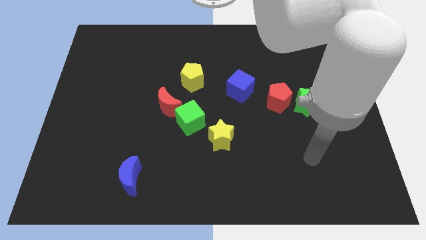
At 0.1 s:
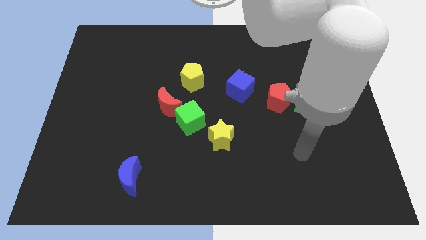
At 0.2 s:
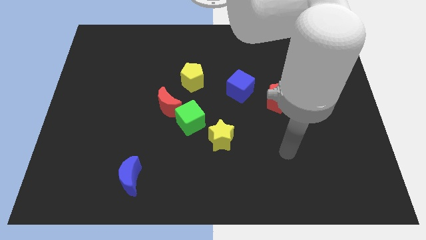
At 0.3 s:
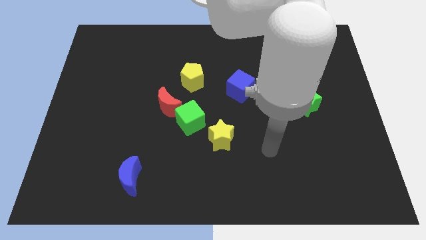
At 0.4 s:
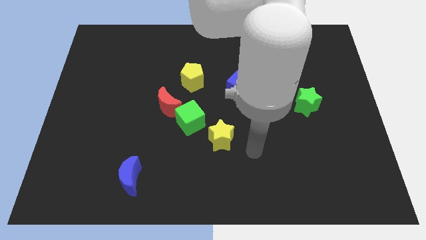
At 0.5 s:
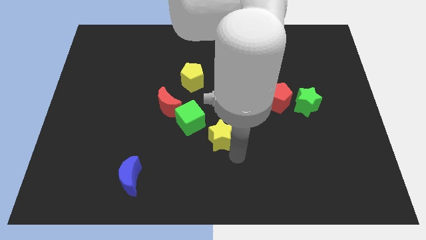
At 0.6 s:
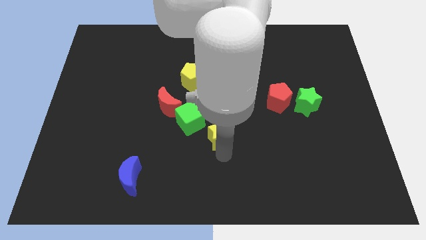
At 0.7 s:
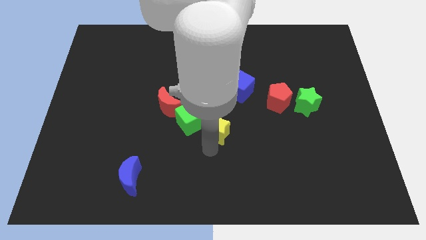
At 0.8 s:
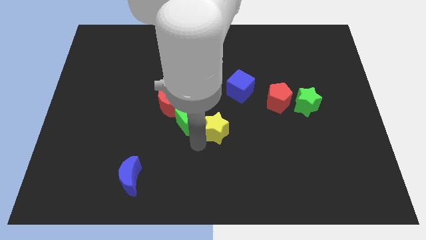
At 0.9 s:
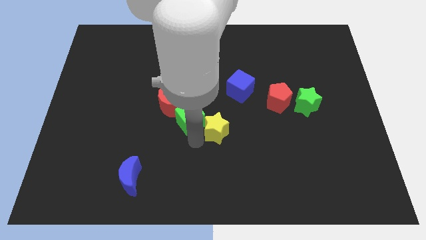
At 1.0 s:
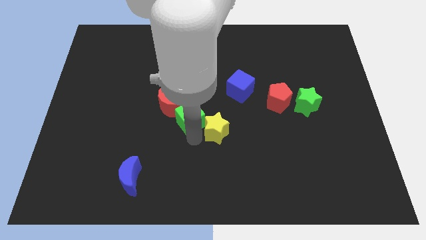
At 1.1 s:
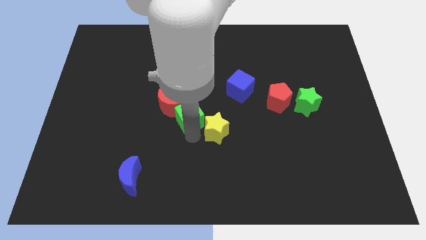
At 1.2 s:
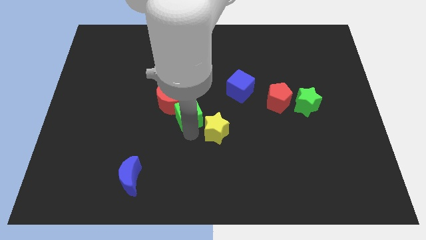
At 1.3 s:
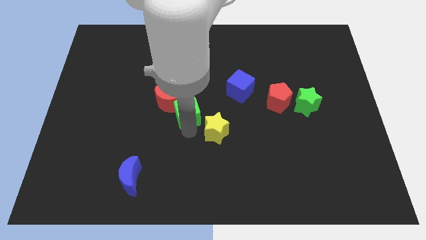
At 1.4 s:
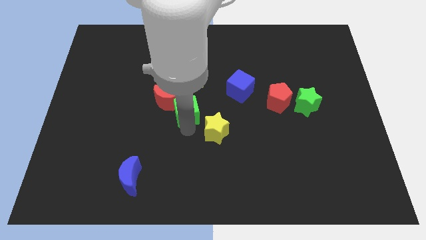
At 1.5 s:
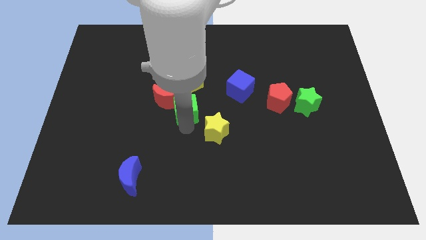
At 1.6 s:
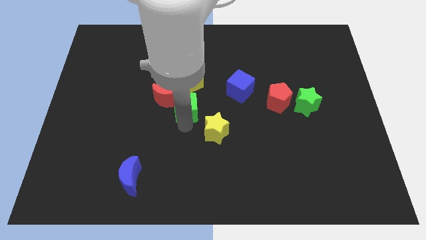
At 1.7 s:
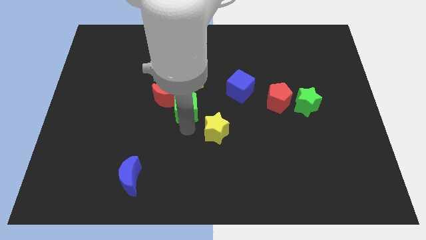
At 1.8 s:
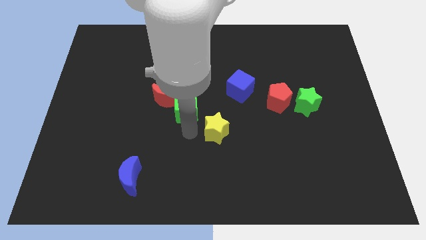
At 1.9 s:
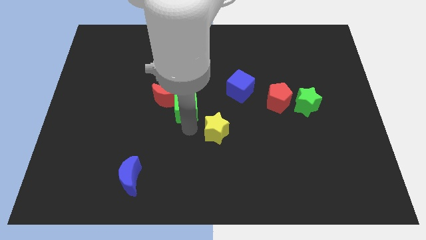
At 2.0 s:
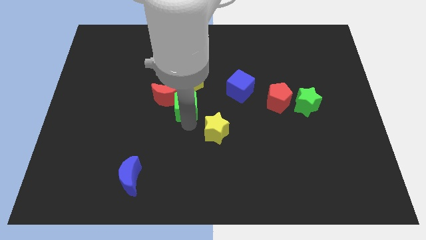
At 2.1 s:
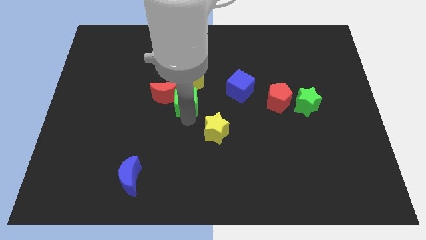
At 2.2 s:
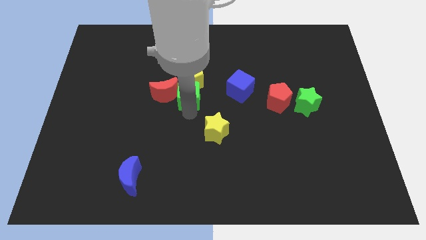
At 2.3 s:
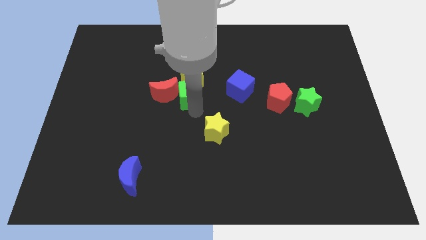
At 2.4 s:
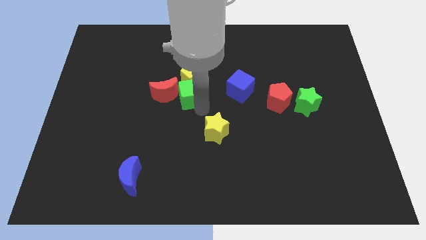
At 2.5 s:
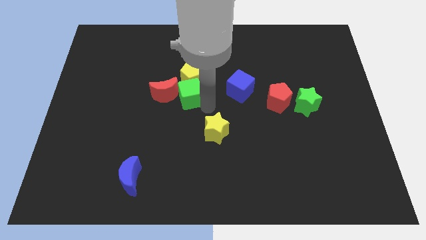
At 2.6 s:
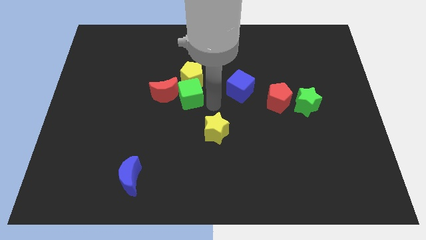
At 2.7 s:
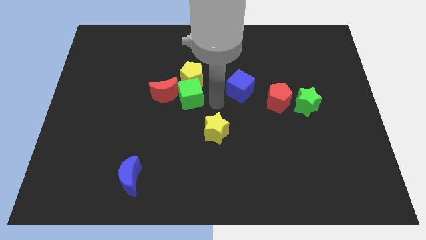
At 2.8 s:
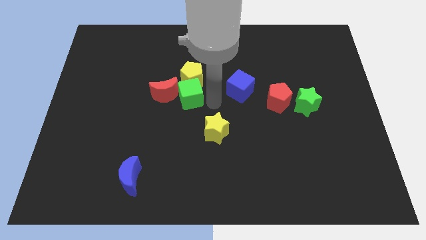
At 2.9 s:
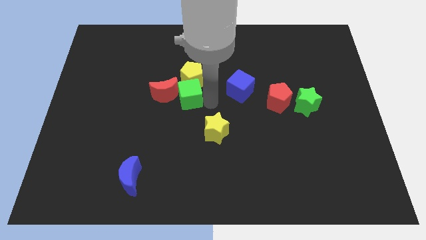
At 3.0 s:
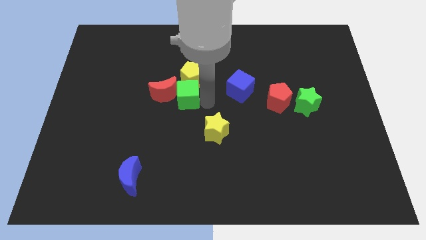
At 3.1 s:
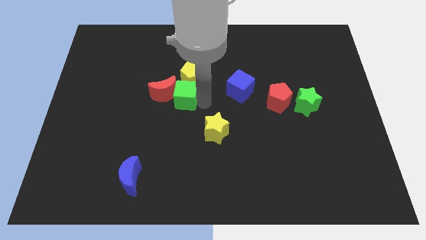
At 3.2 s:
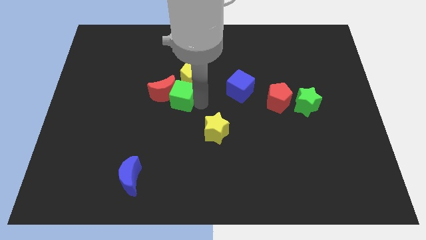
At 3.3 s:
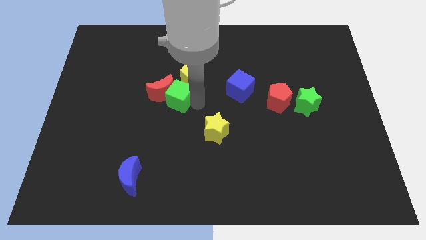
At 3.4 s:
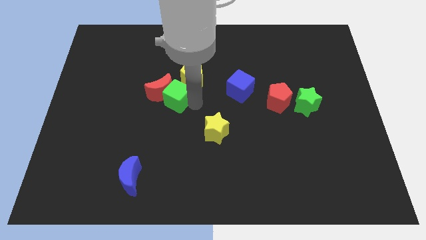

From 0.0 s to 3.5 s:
slightly move the green cube upwards and then to the left

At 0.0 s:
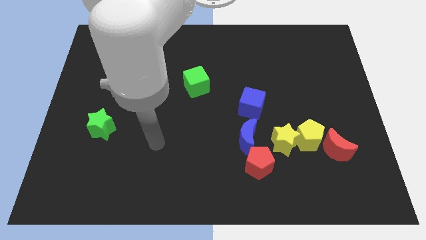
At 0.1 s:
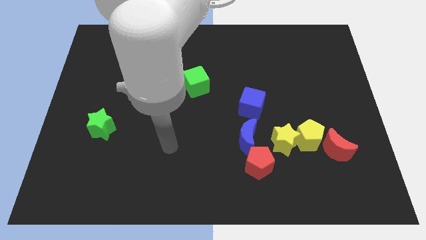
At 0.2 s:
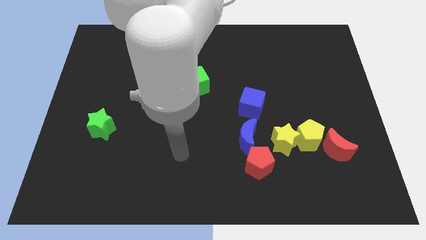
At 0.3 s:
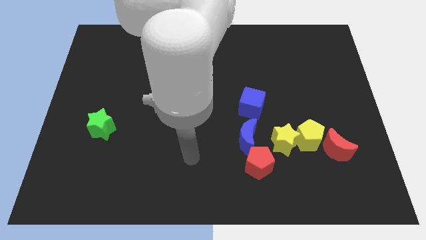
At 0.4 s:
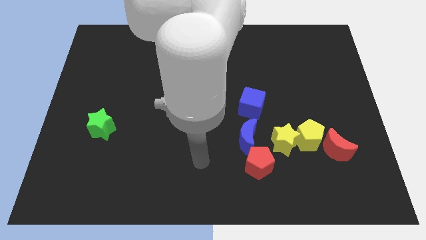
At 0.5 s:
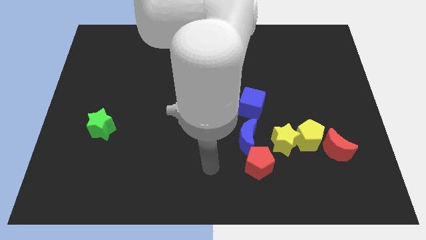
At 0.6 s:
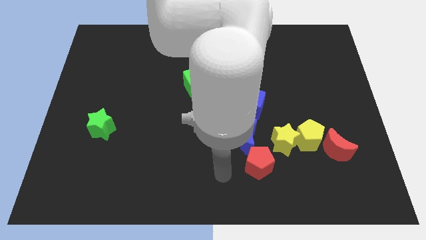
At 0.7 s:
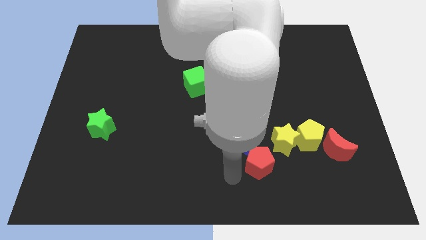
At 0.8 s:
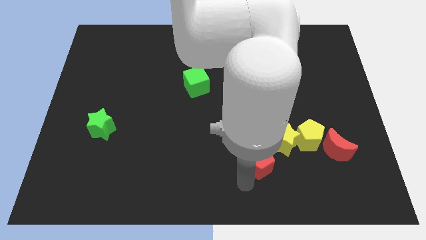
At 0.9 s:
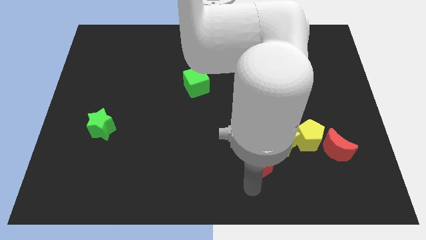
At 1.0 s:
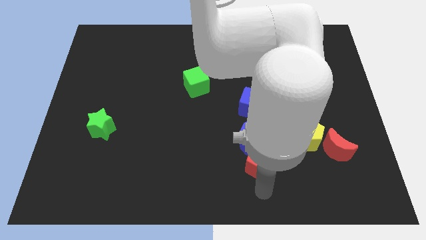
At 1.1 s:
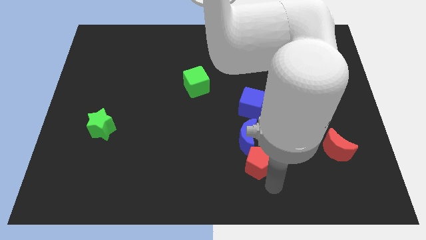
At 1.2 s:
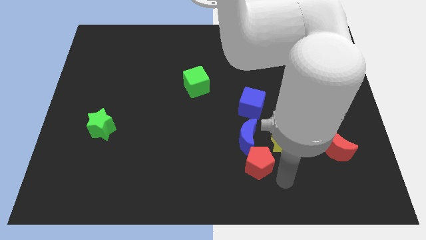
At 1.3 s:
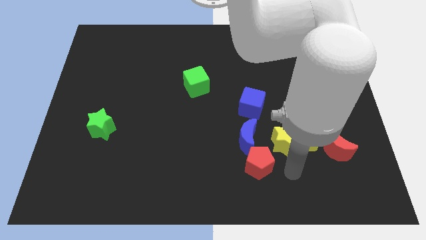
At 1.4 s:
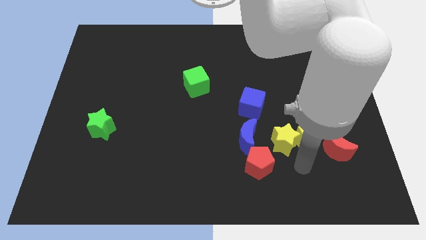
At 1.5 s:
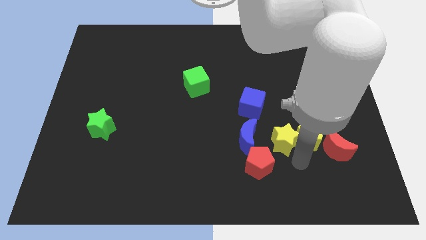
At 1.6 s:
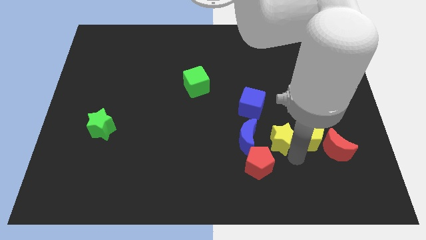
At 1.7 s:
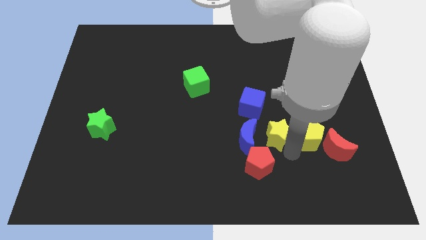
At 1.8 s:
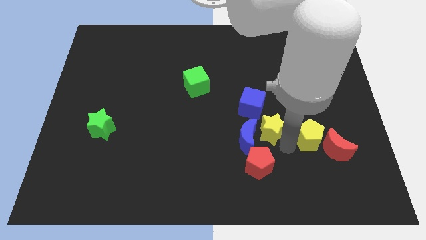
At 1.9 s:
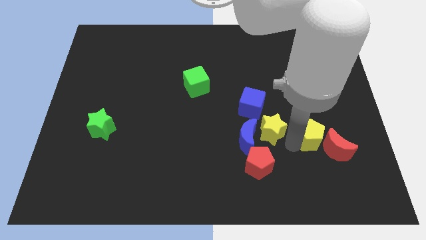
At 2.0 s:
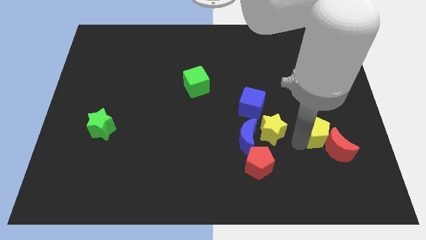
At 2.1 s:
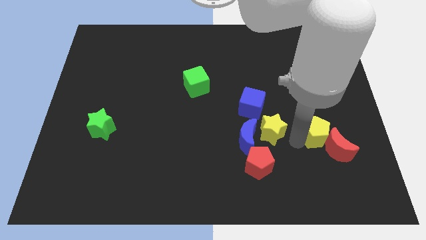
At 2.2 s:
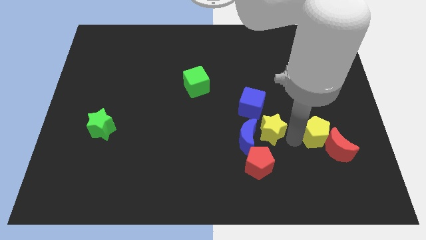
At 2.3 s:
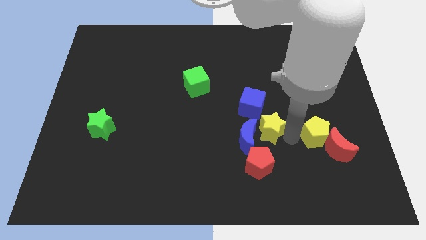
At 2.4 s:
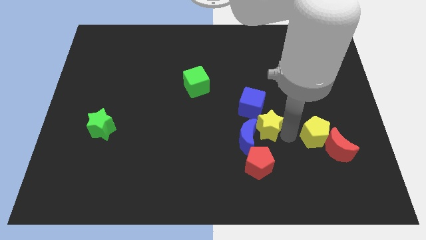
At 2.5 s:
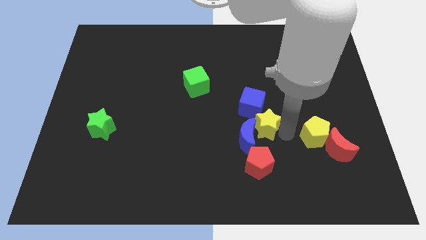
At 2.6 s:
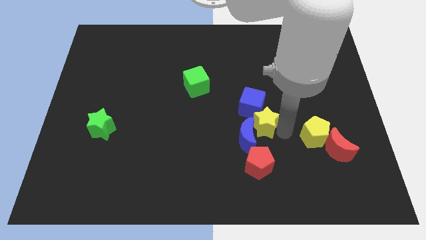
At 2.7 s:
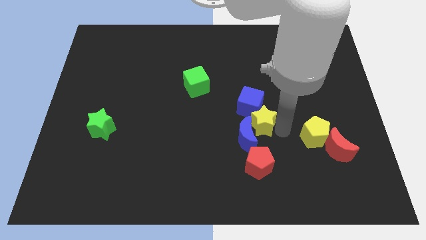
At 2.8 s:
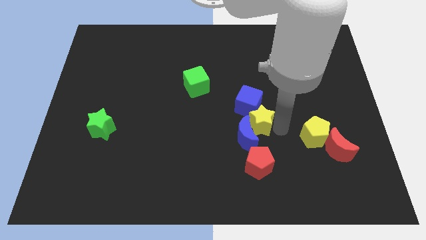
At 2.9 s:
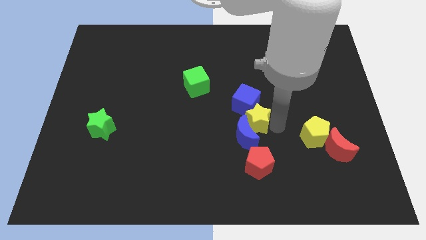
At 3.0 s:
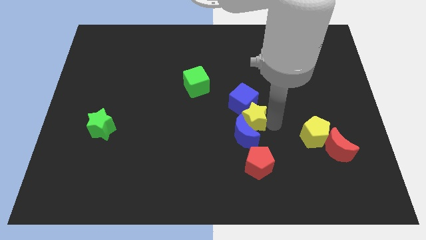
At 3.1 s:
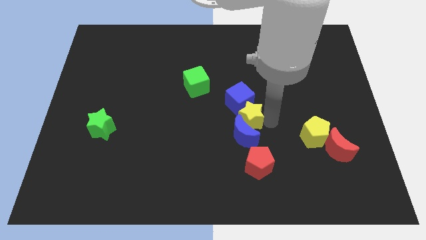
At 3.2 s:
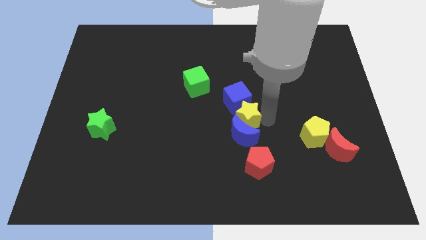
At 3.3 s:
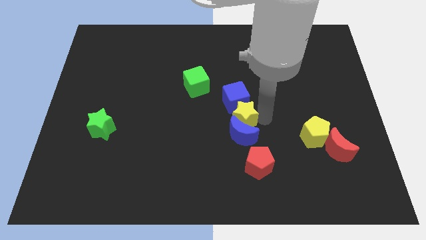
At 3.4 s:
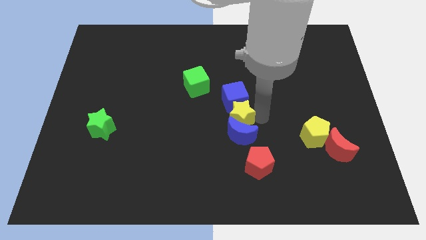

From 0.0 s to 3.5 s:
slide the yellow star a little bit left

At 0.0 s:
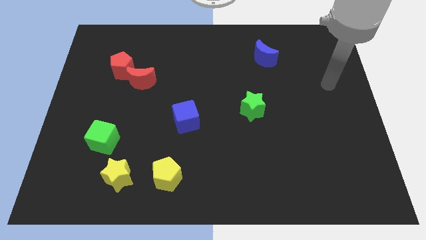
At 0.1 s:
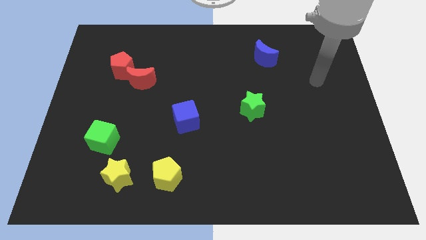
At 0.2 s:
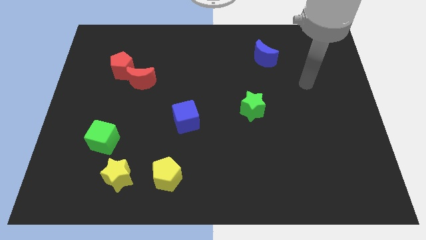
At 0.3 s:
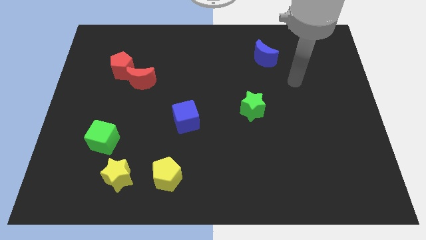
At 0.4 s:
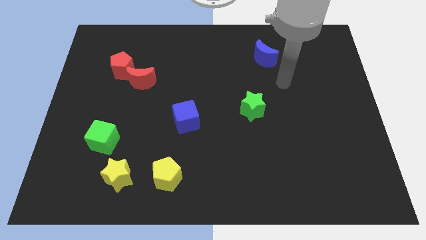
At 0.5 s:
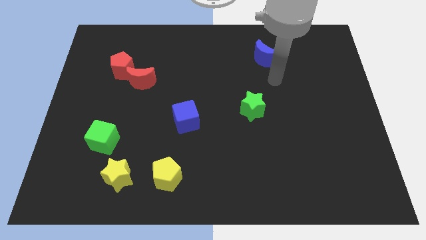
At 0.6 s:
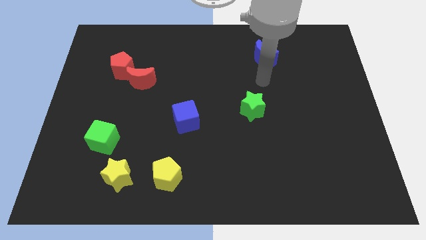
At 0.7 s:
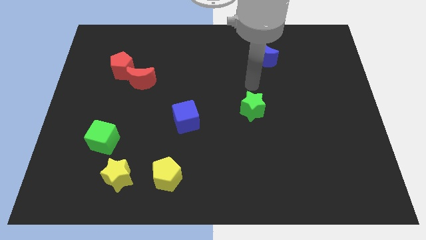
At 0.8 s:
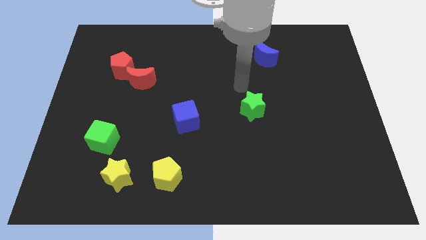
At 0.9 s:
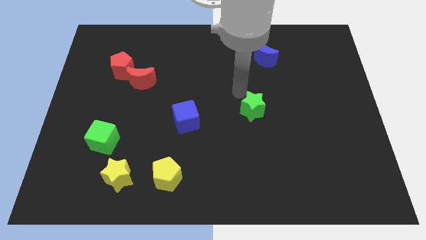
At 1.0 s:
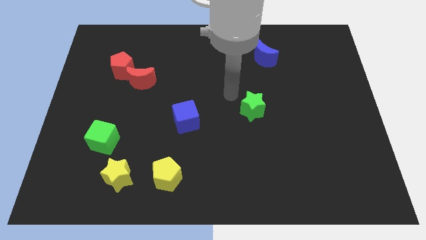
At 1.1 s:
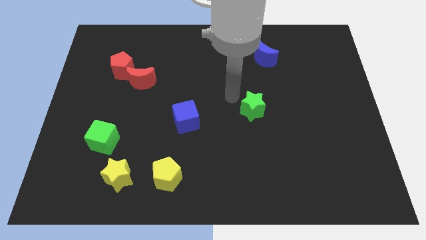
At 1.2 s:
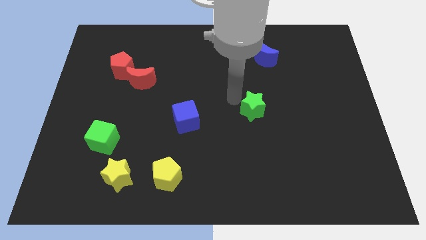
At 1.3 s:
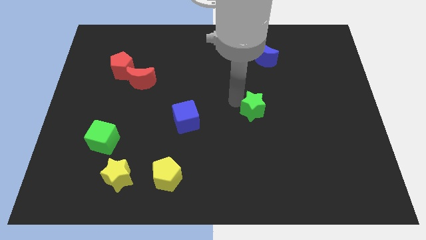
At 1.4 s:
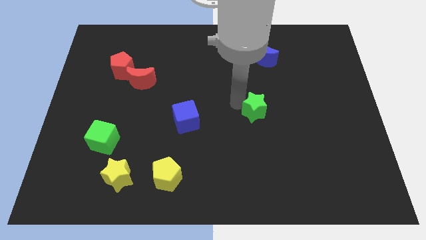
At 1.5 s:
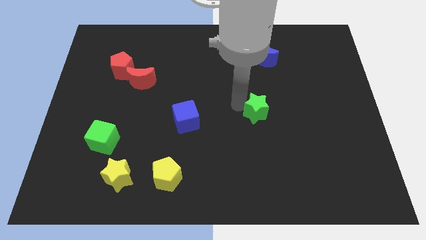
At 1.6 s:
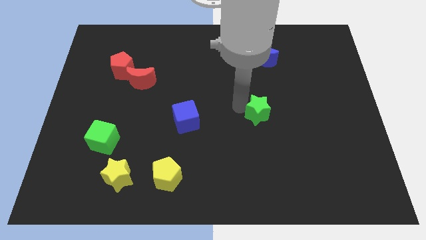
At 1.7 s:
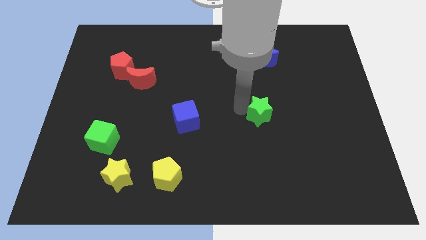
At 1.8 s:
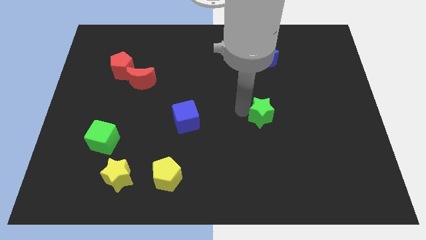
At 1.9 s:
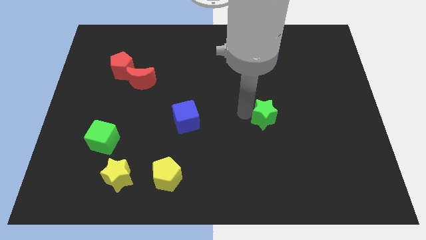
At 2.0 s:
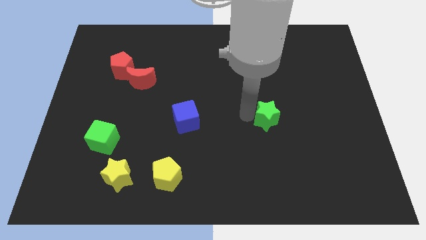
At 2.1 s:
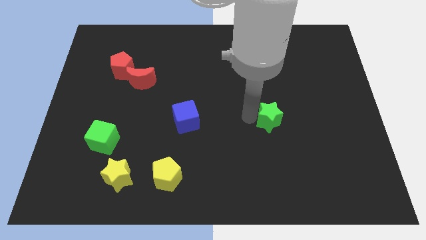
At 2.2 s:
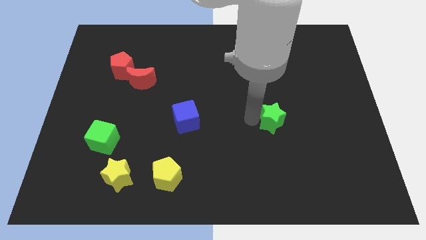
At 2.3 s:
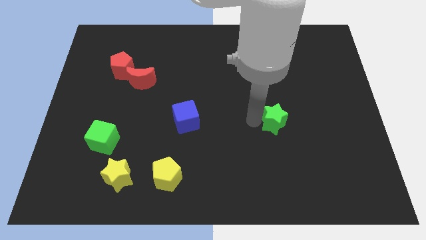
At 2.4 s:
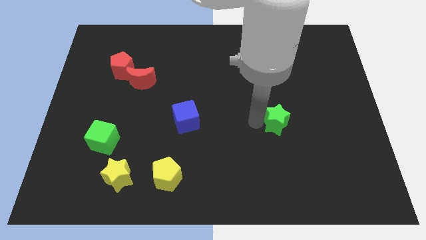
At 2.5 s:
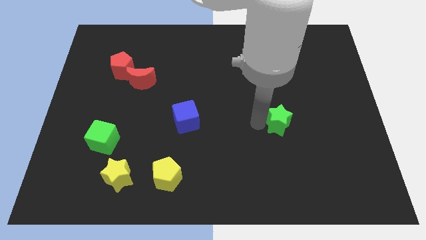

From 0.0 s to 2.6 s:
slide the green star slightly downwards and right diagonally
